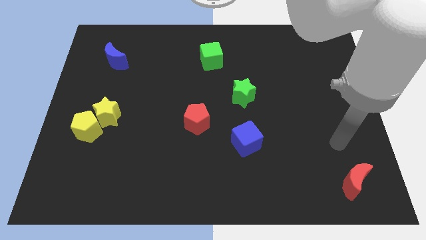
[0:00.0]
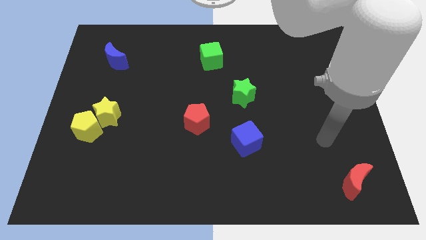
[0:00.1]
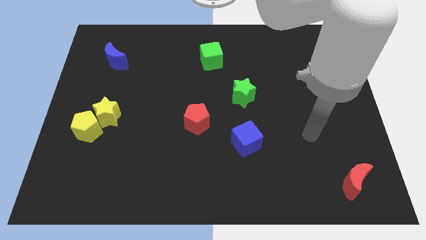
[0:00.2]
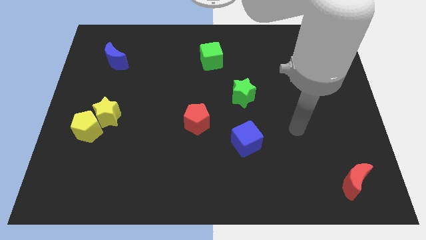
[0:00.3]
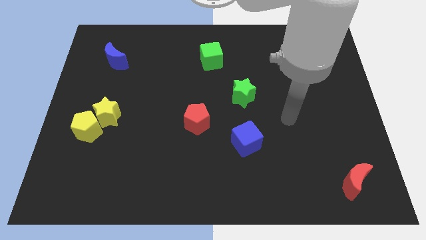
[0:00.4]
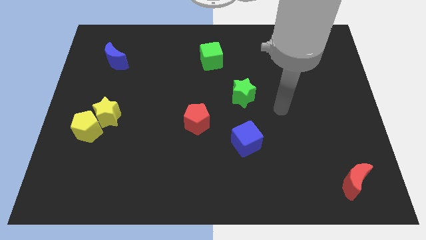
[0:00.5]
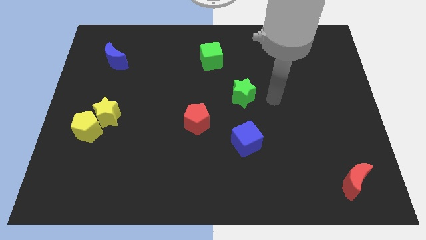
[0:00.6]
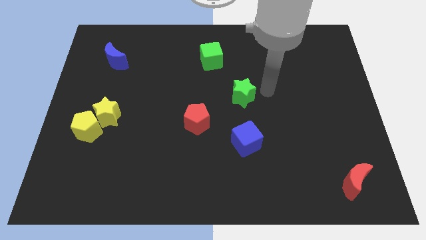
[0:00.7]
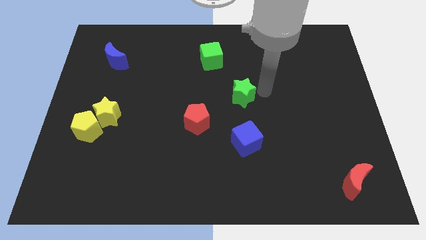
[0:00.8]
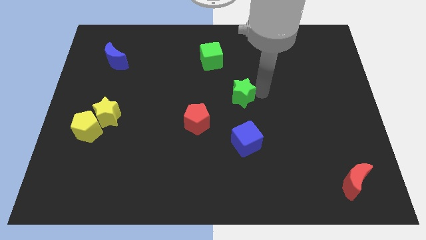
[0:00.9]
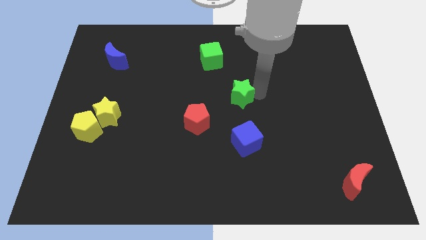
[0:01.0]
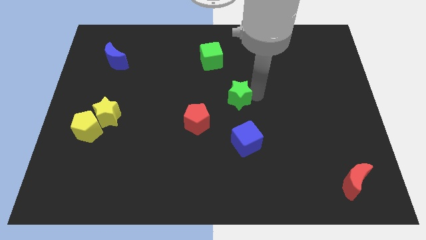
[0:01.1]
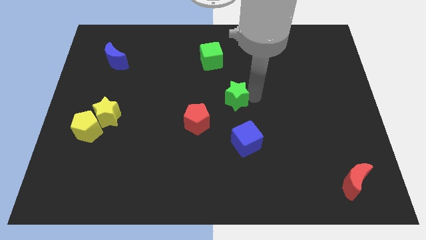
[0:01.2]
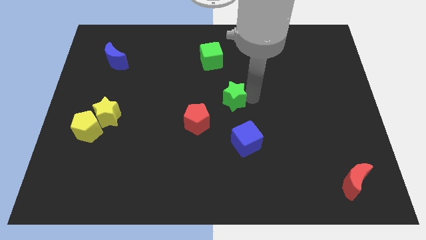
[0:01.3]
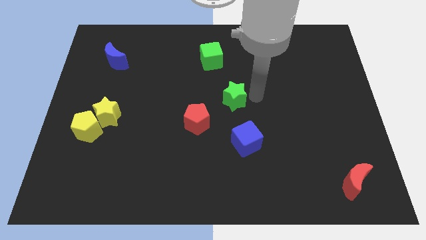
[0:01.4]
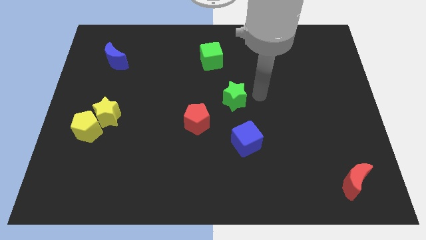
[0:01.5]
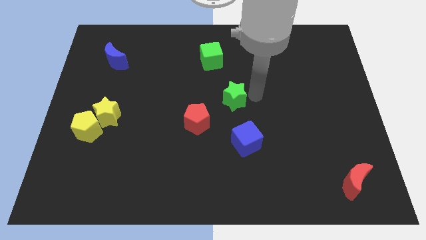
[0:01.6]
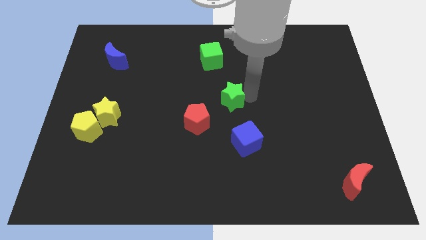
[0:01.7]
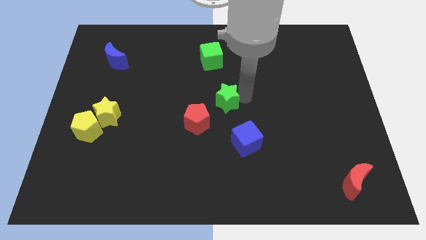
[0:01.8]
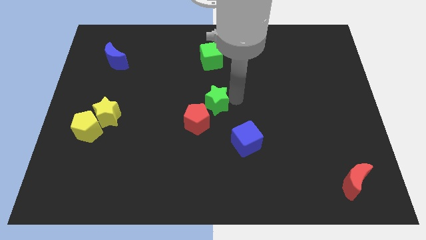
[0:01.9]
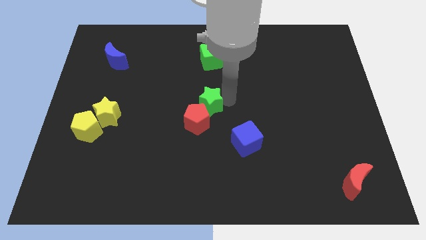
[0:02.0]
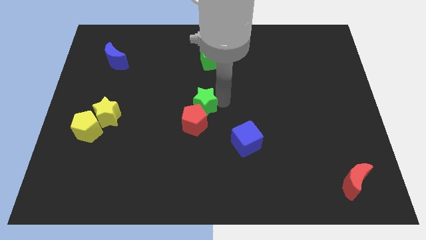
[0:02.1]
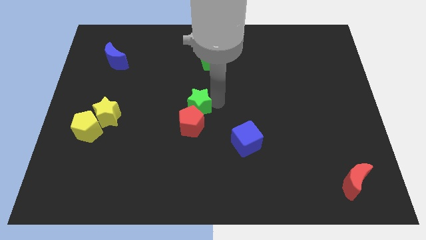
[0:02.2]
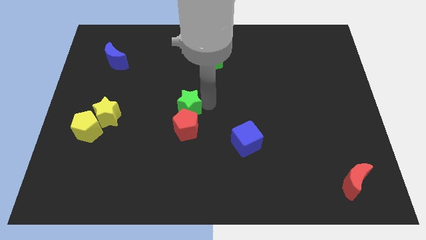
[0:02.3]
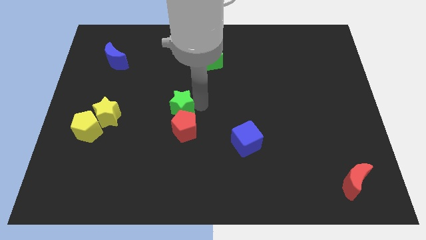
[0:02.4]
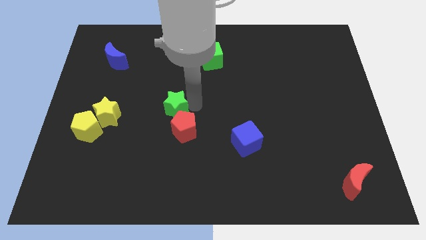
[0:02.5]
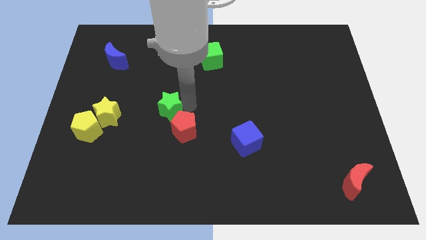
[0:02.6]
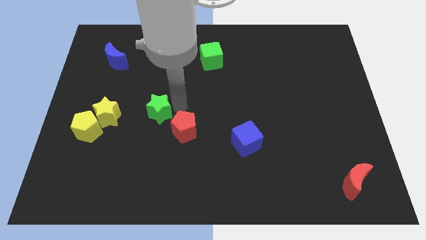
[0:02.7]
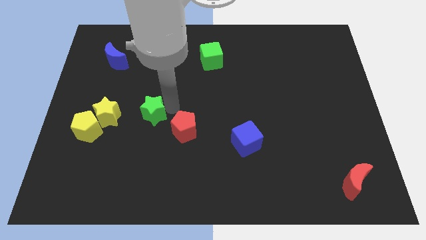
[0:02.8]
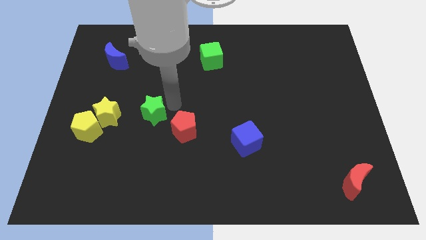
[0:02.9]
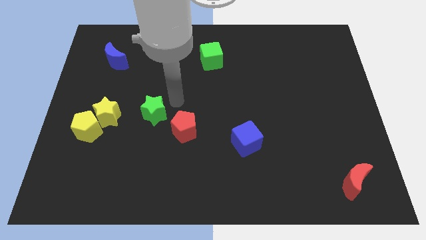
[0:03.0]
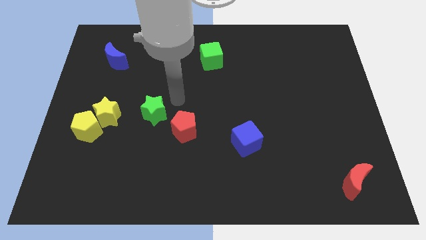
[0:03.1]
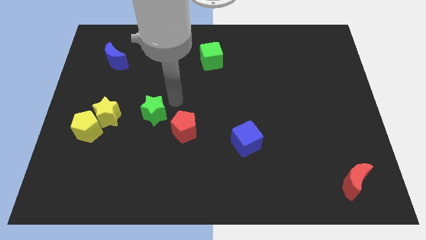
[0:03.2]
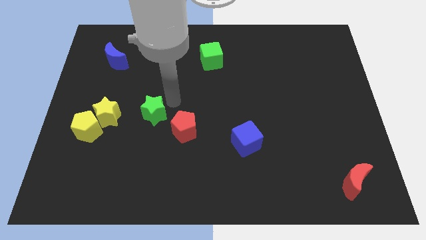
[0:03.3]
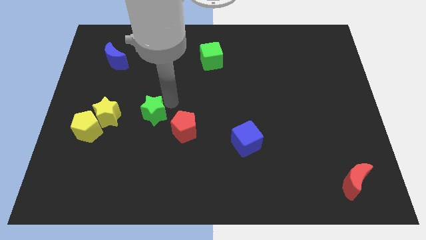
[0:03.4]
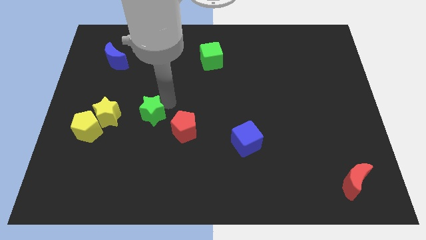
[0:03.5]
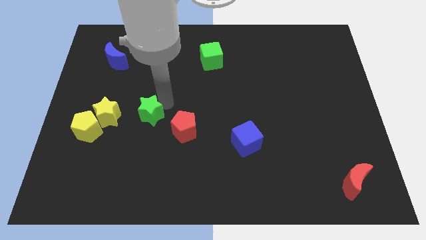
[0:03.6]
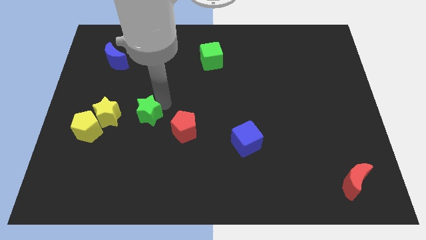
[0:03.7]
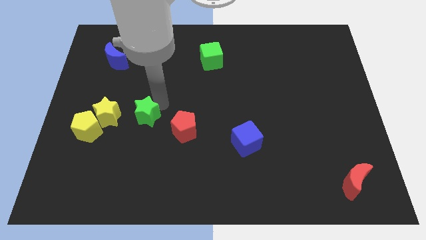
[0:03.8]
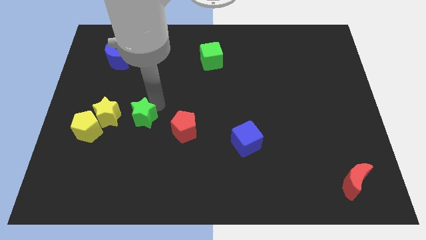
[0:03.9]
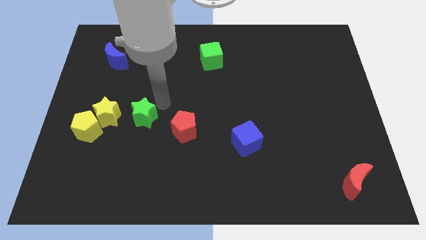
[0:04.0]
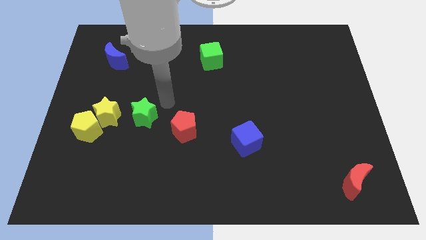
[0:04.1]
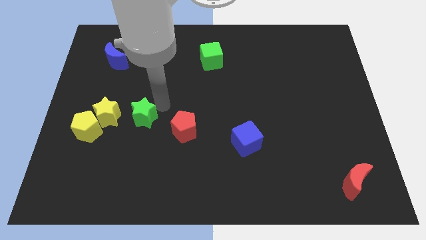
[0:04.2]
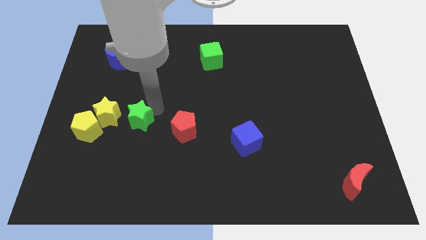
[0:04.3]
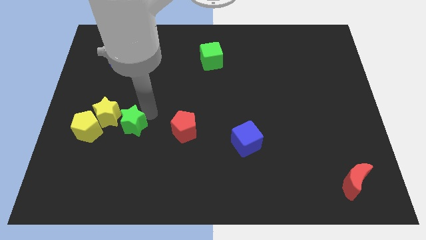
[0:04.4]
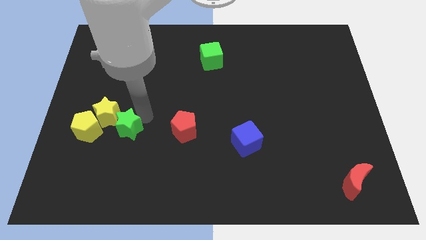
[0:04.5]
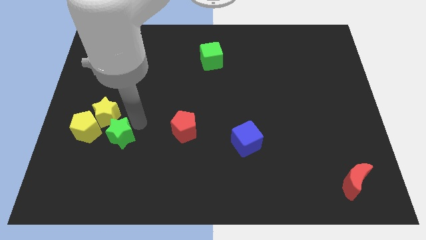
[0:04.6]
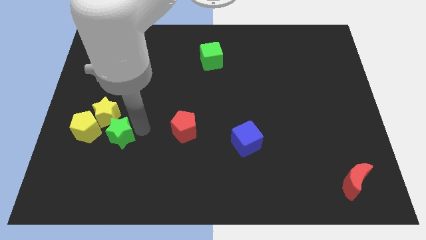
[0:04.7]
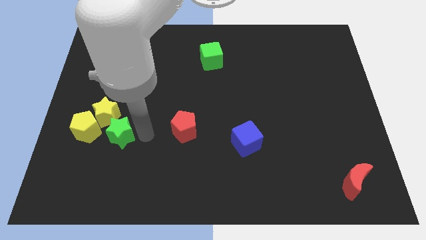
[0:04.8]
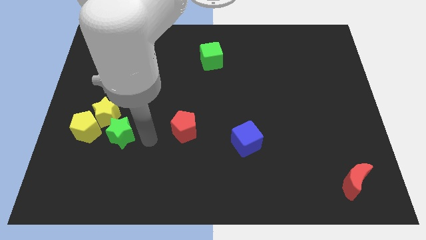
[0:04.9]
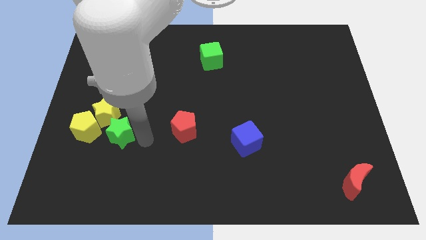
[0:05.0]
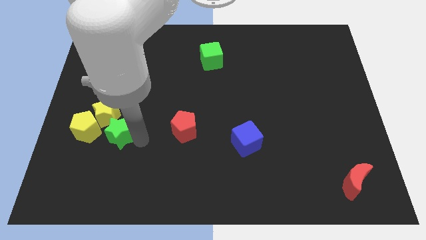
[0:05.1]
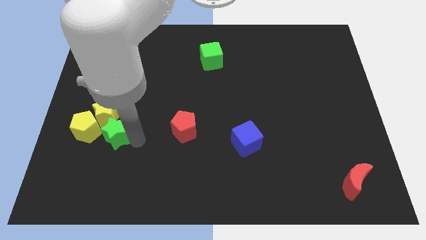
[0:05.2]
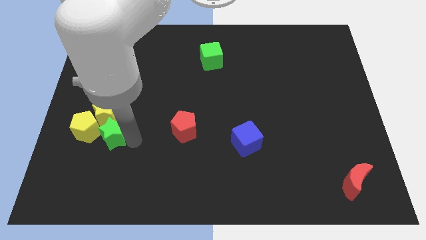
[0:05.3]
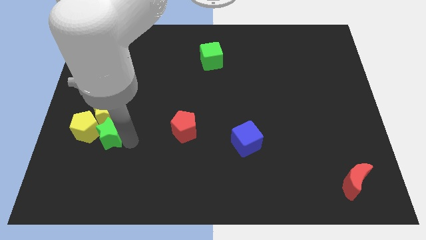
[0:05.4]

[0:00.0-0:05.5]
move the green star next to the yellow pentagon

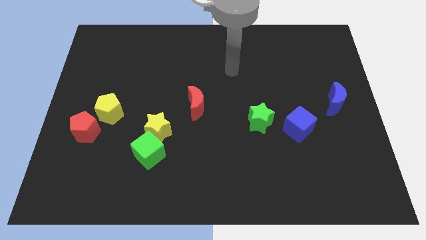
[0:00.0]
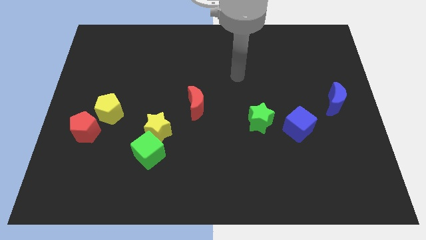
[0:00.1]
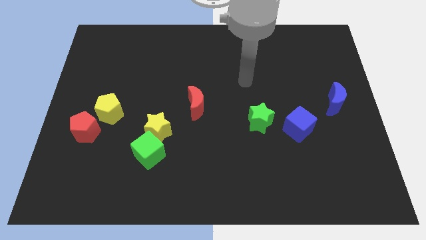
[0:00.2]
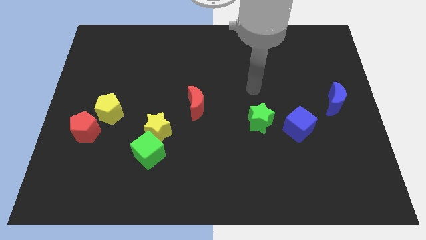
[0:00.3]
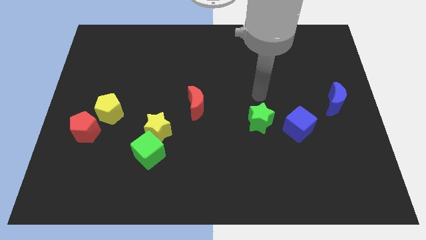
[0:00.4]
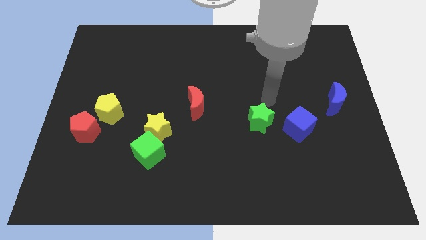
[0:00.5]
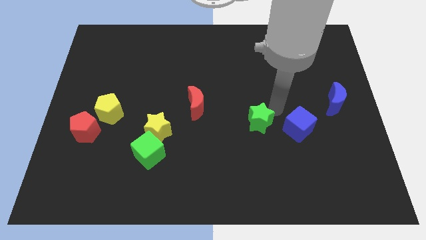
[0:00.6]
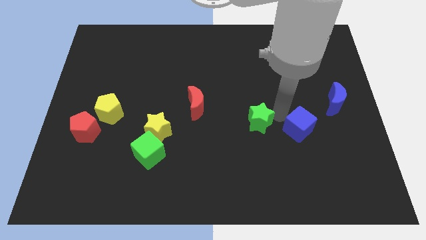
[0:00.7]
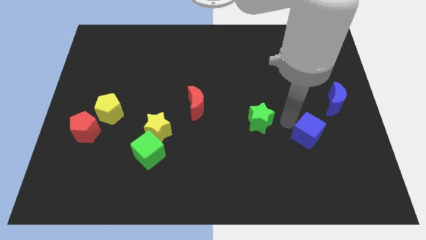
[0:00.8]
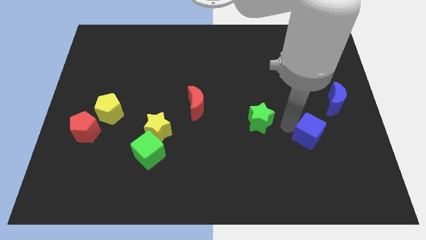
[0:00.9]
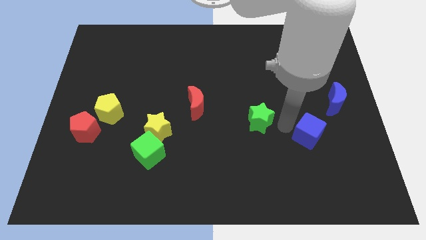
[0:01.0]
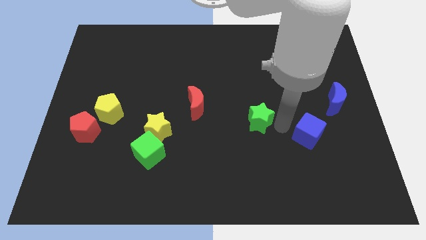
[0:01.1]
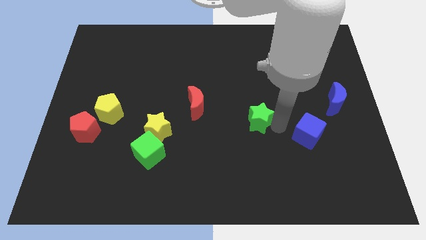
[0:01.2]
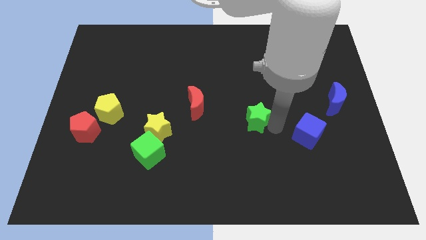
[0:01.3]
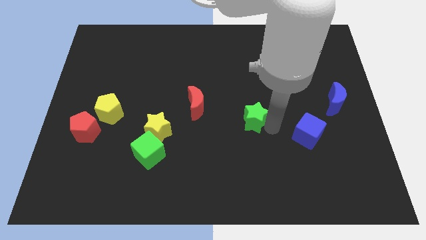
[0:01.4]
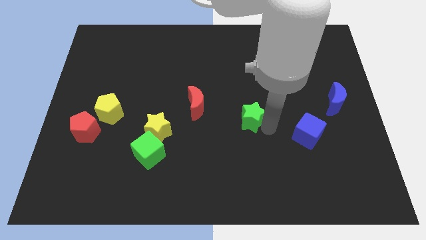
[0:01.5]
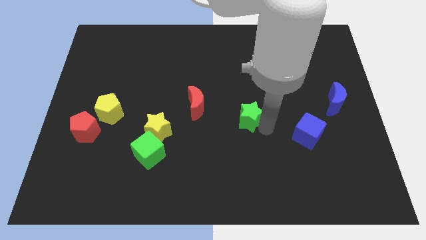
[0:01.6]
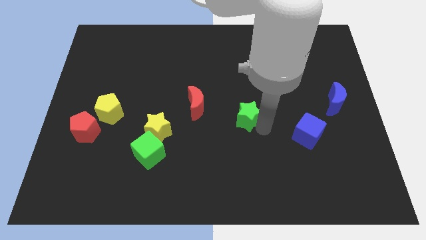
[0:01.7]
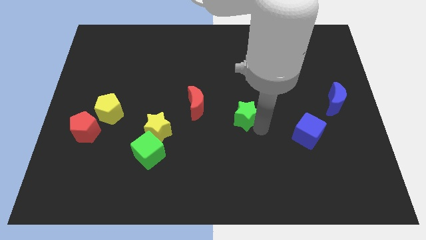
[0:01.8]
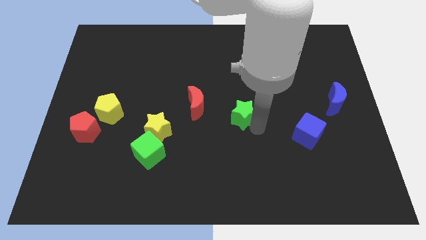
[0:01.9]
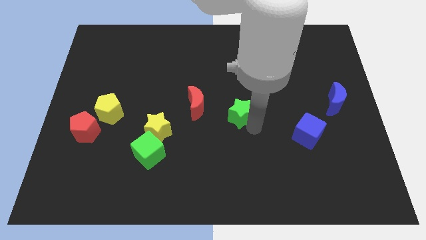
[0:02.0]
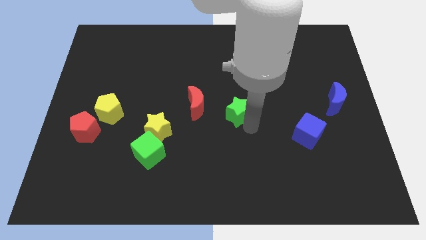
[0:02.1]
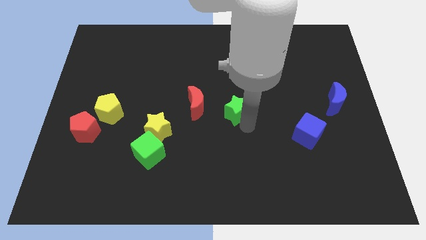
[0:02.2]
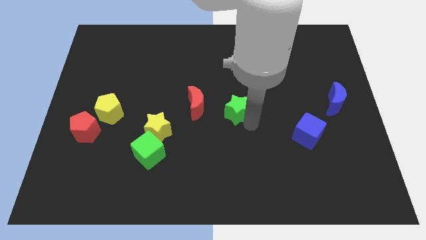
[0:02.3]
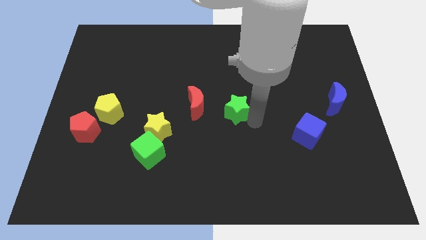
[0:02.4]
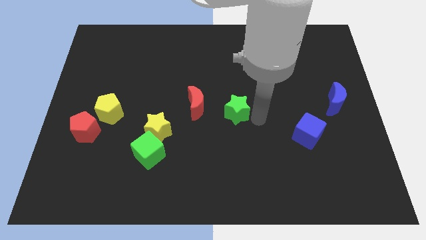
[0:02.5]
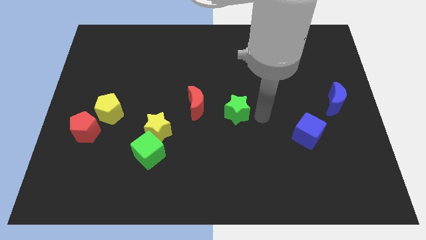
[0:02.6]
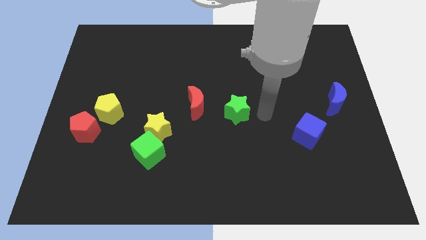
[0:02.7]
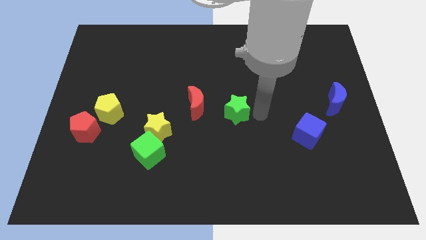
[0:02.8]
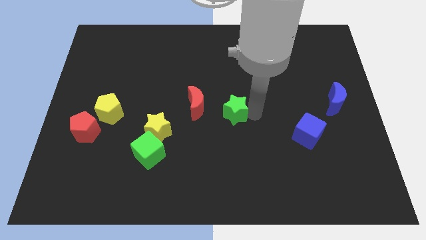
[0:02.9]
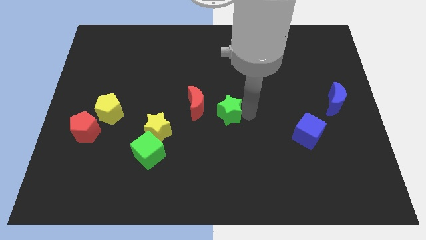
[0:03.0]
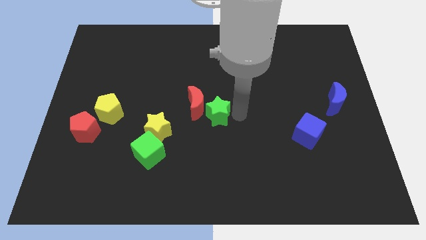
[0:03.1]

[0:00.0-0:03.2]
slide the green star next to the red moon
